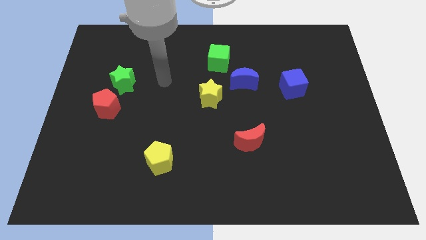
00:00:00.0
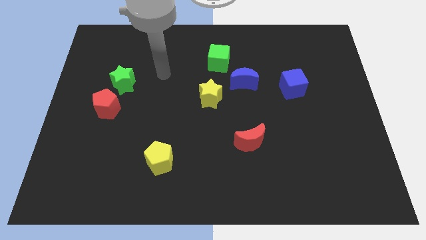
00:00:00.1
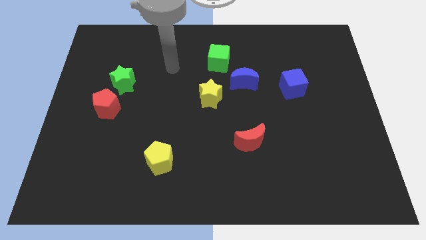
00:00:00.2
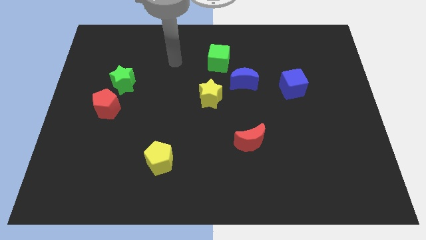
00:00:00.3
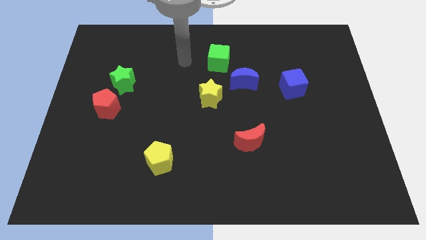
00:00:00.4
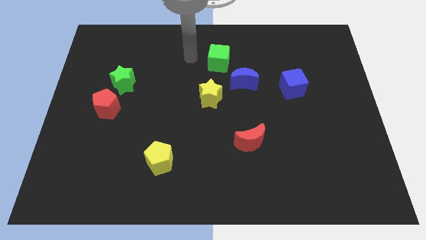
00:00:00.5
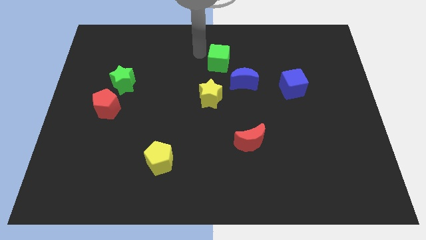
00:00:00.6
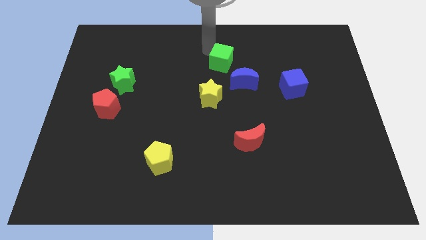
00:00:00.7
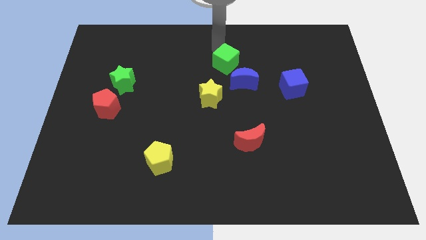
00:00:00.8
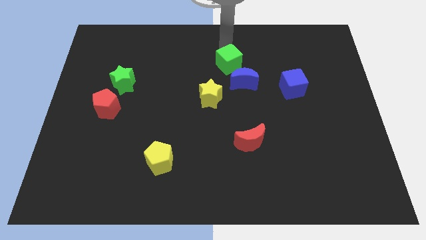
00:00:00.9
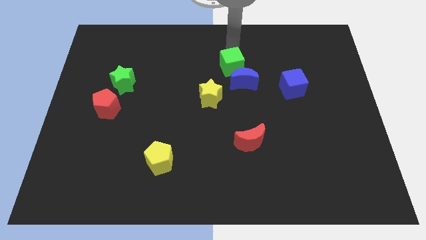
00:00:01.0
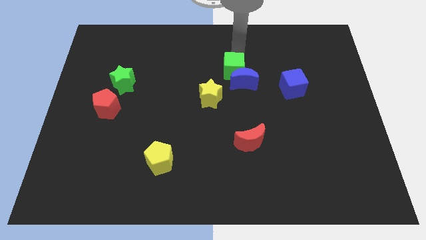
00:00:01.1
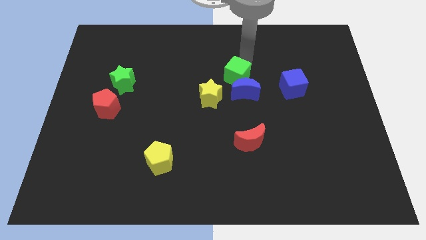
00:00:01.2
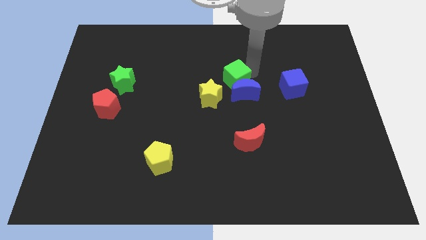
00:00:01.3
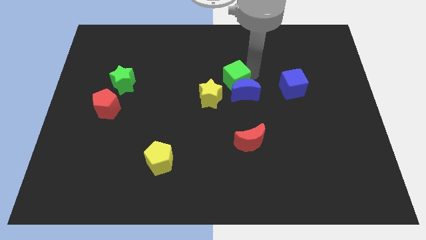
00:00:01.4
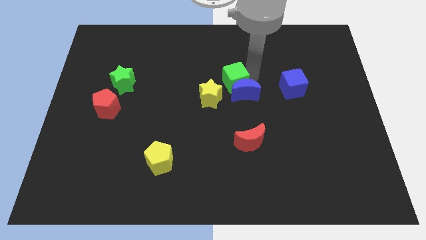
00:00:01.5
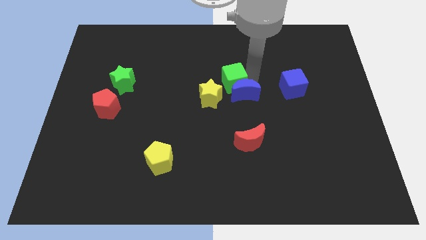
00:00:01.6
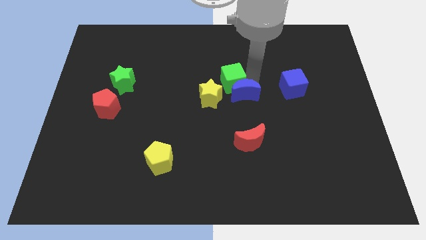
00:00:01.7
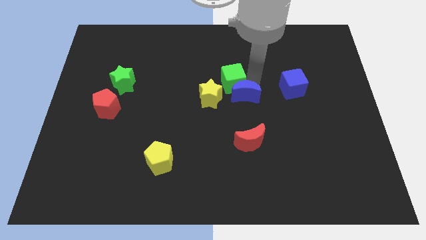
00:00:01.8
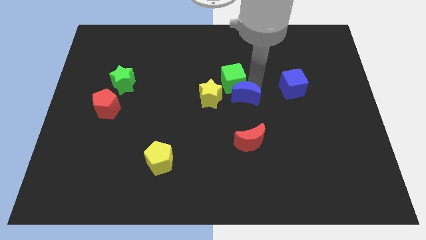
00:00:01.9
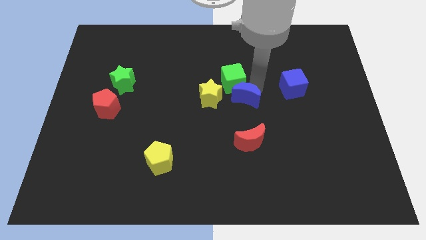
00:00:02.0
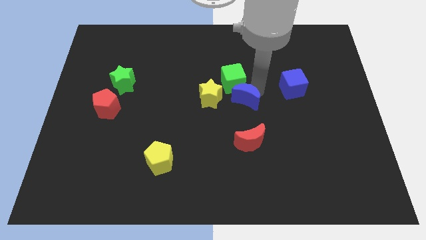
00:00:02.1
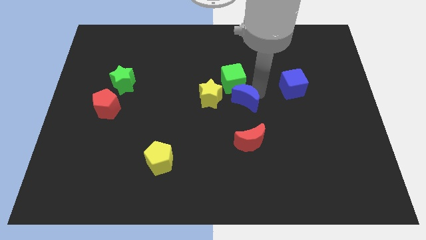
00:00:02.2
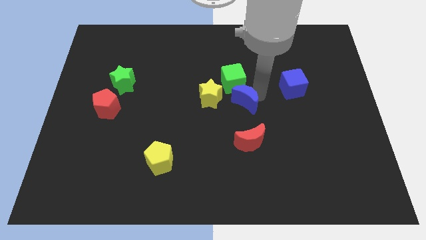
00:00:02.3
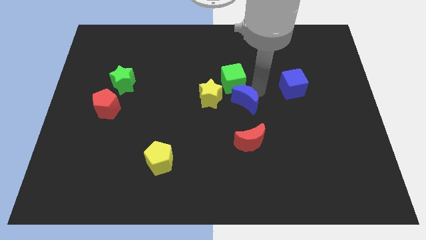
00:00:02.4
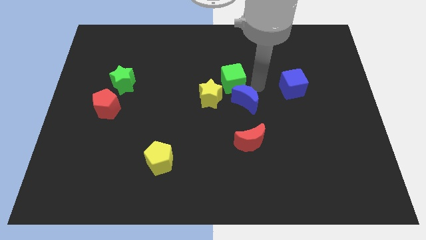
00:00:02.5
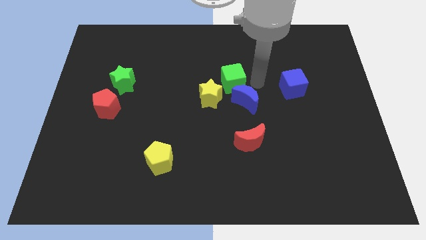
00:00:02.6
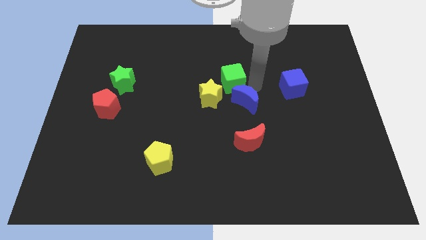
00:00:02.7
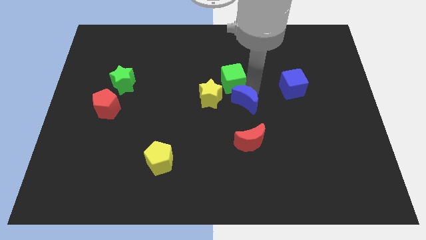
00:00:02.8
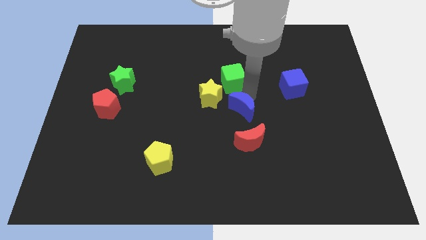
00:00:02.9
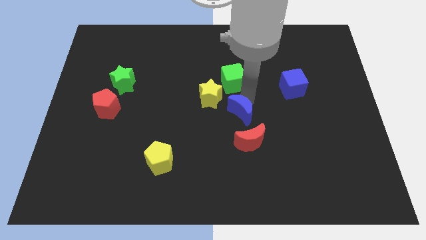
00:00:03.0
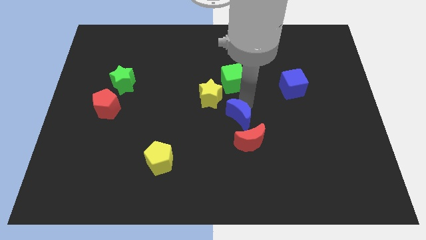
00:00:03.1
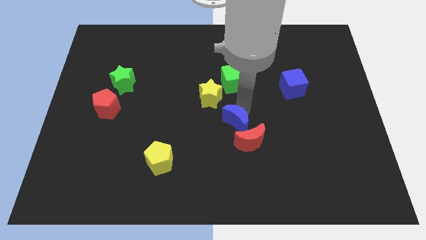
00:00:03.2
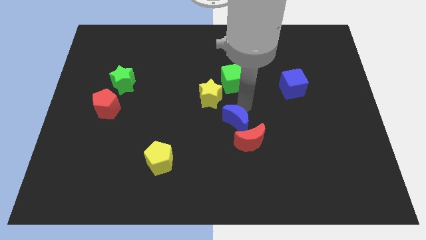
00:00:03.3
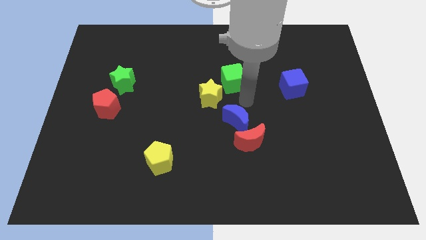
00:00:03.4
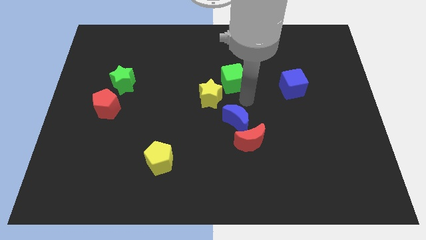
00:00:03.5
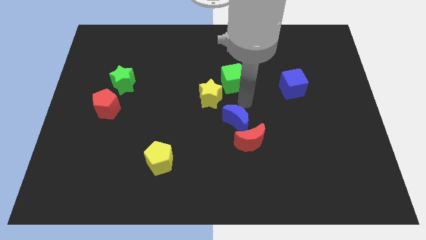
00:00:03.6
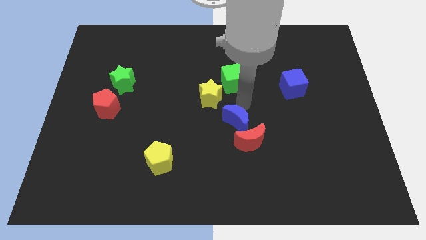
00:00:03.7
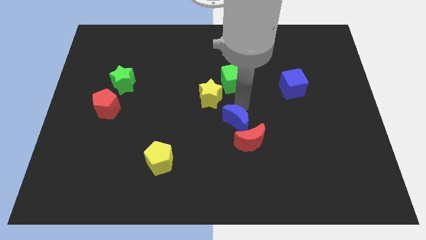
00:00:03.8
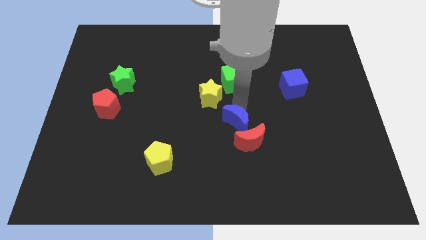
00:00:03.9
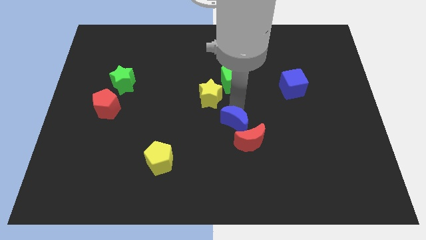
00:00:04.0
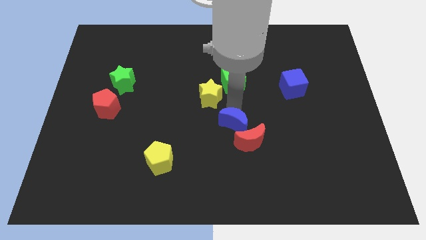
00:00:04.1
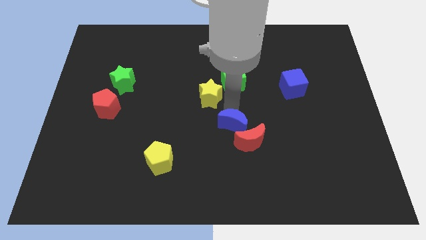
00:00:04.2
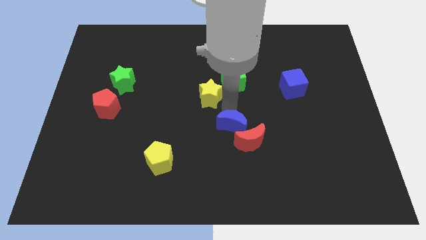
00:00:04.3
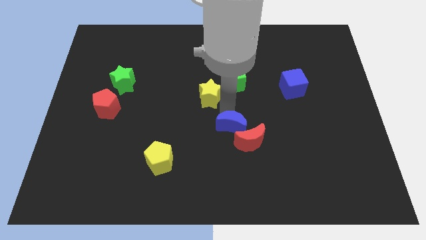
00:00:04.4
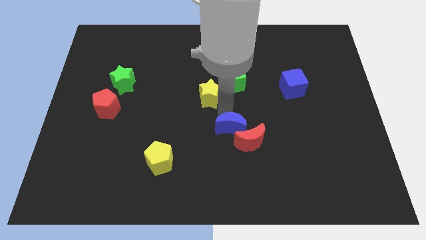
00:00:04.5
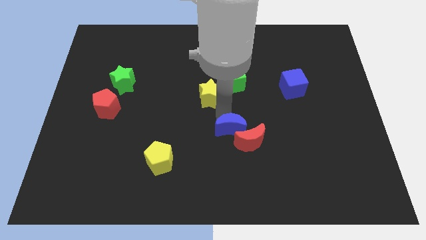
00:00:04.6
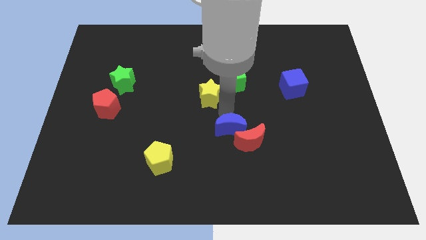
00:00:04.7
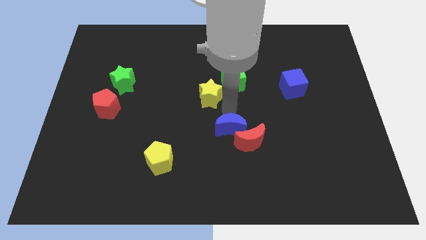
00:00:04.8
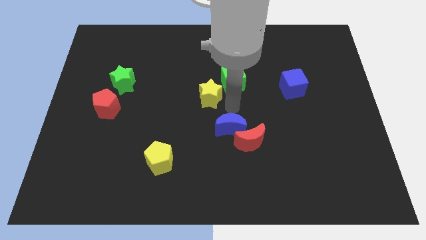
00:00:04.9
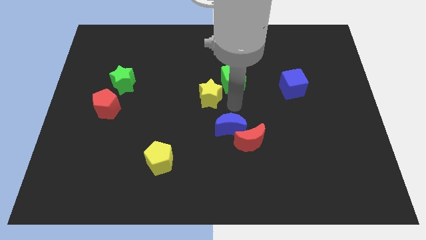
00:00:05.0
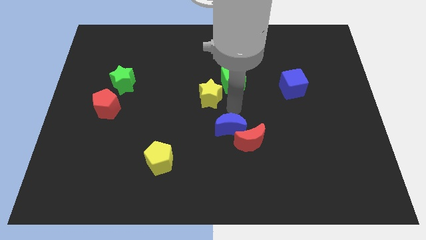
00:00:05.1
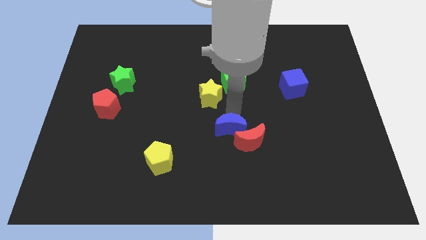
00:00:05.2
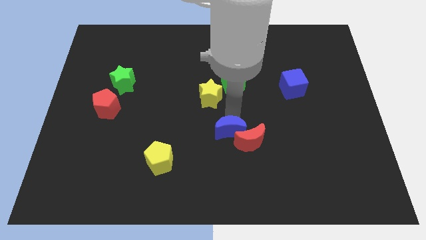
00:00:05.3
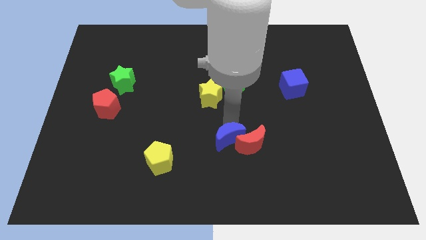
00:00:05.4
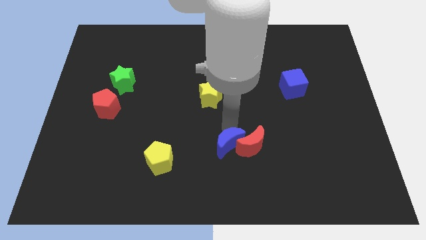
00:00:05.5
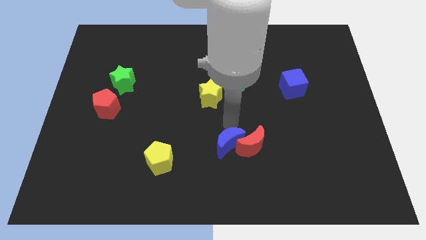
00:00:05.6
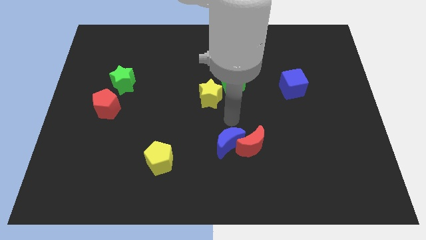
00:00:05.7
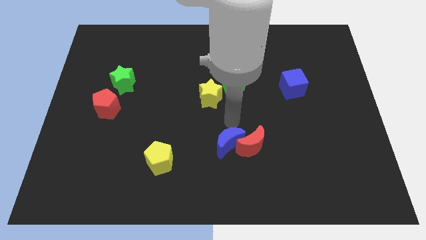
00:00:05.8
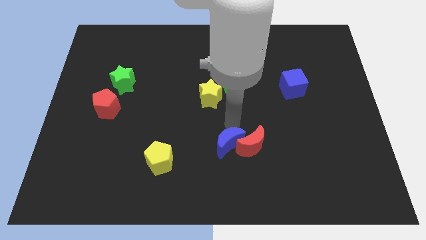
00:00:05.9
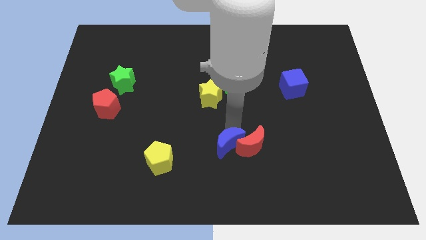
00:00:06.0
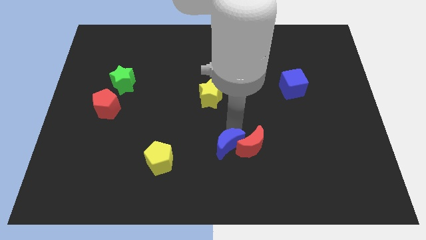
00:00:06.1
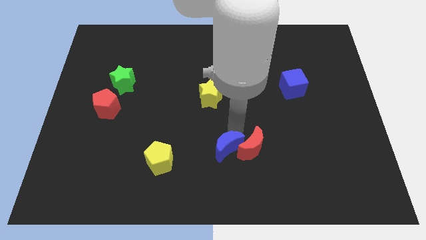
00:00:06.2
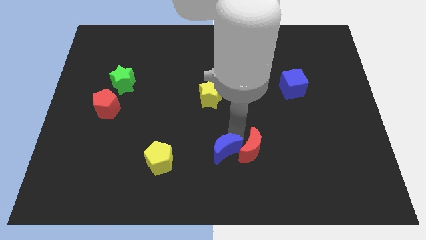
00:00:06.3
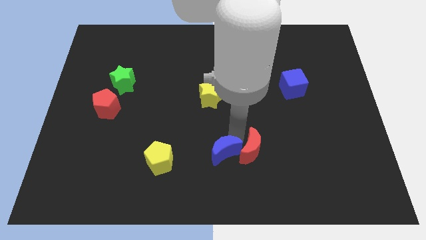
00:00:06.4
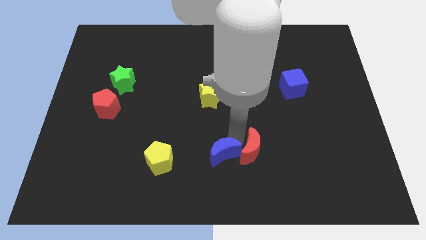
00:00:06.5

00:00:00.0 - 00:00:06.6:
push the blue moon to the bottom

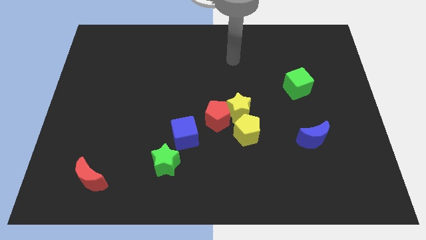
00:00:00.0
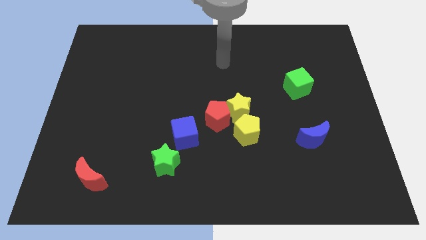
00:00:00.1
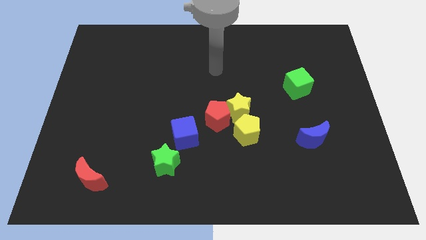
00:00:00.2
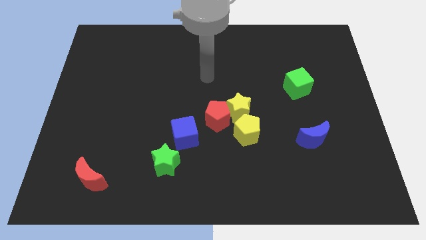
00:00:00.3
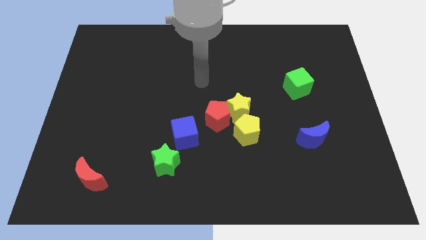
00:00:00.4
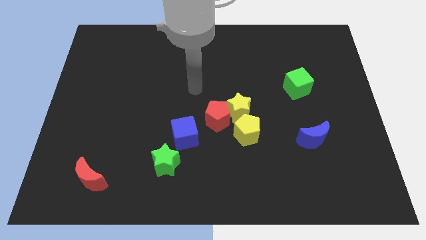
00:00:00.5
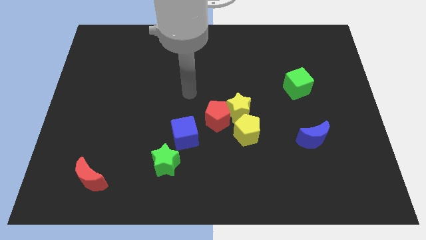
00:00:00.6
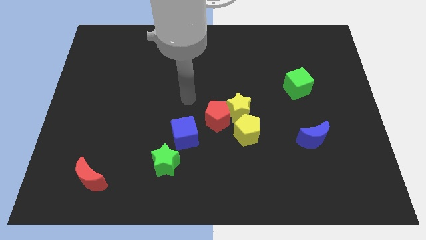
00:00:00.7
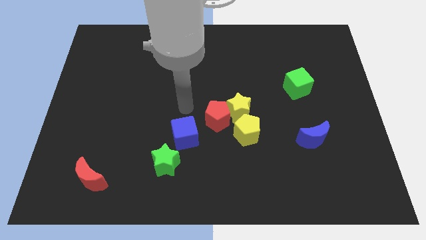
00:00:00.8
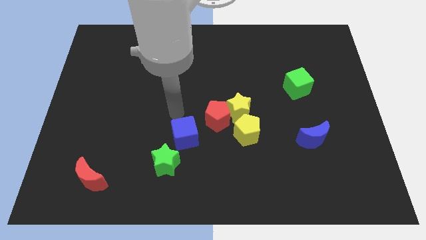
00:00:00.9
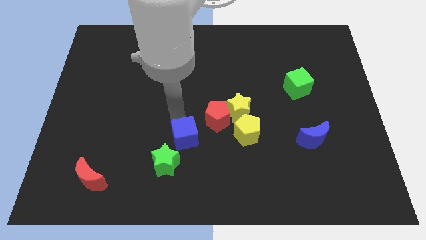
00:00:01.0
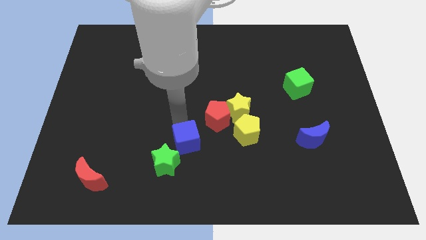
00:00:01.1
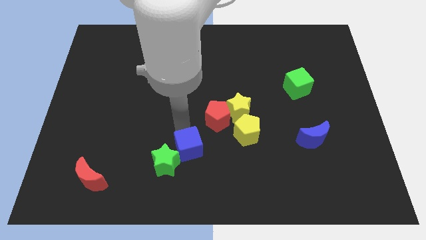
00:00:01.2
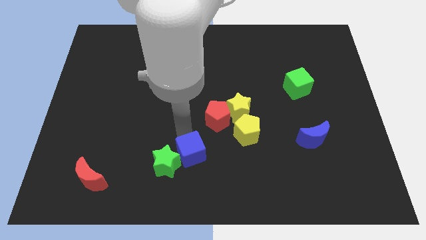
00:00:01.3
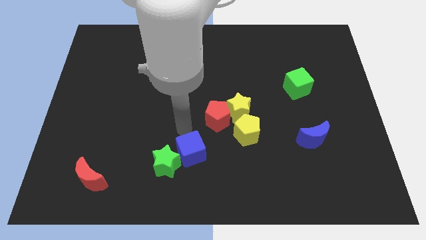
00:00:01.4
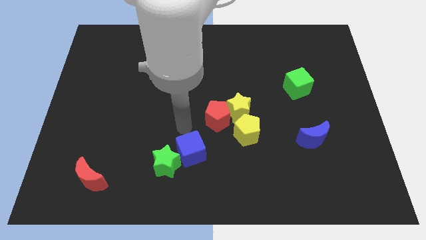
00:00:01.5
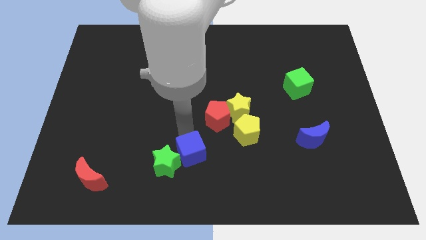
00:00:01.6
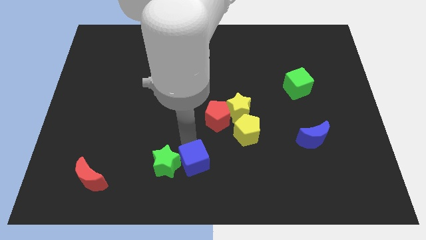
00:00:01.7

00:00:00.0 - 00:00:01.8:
push the blue cube to the bottom side
